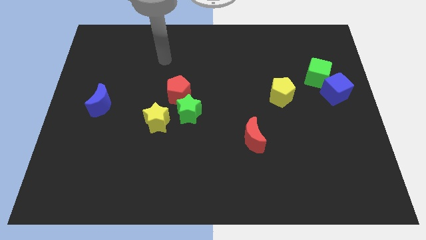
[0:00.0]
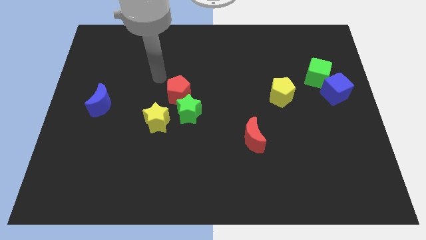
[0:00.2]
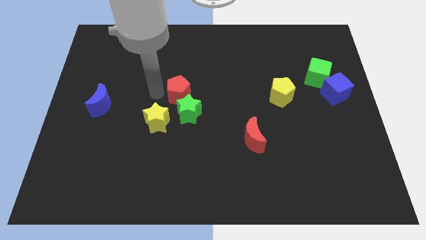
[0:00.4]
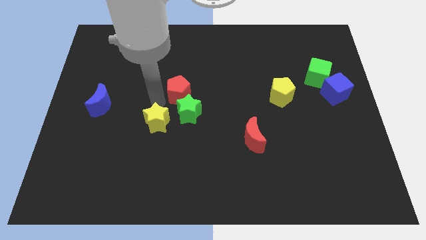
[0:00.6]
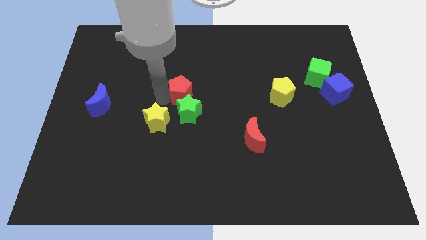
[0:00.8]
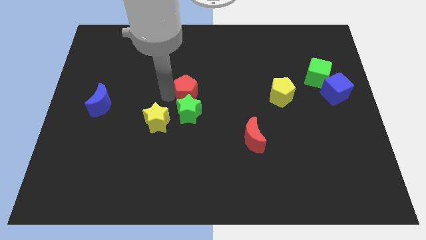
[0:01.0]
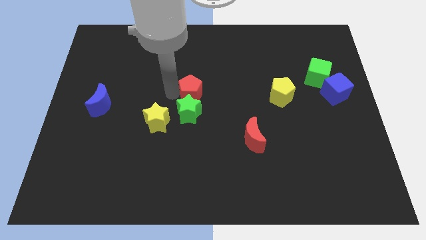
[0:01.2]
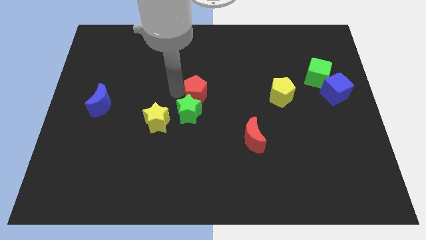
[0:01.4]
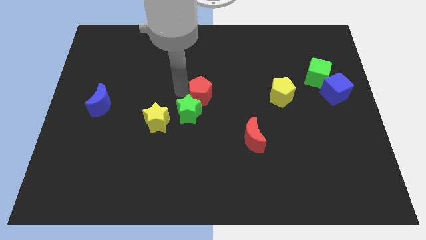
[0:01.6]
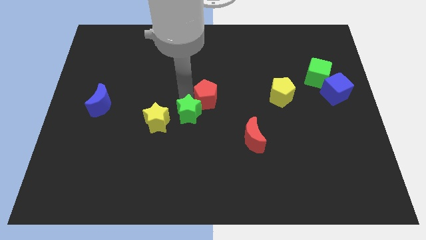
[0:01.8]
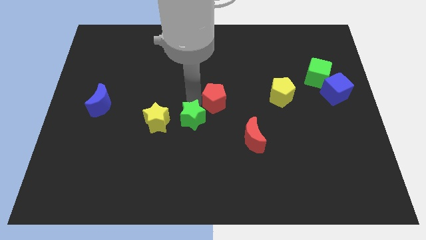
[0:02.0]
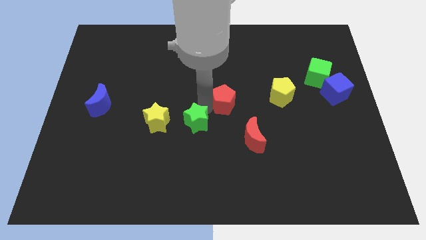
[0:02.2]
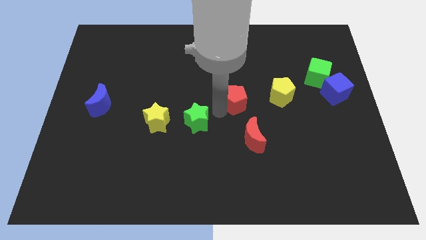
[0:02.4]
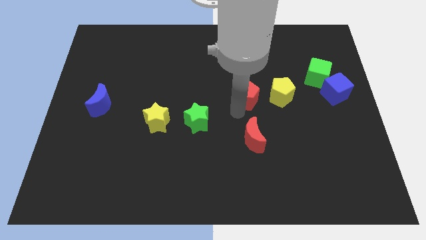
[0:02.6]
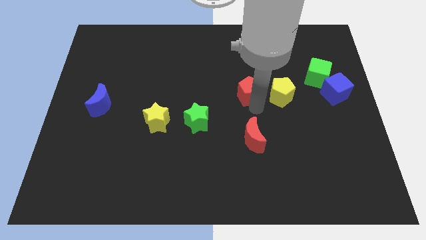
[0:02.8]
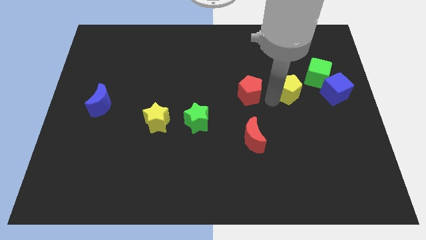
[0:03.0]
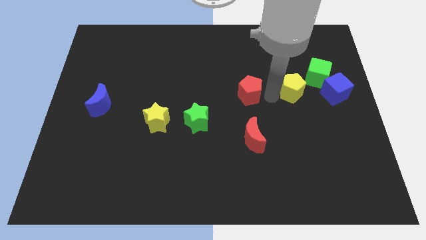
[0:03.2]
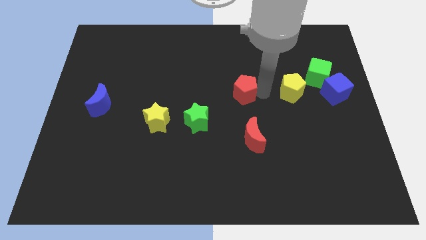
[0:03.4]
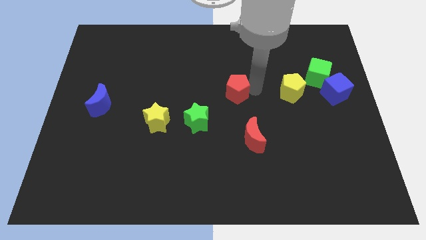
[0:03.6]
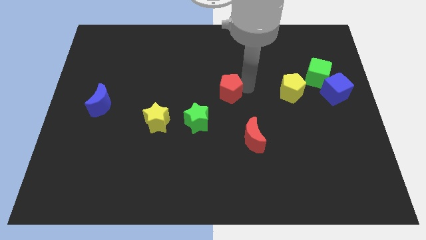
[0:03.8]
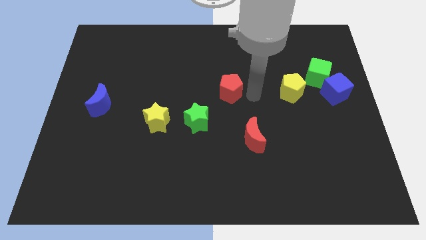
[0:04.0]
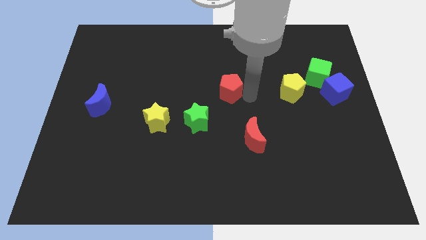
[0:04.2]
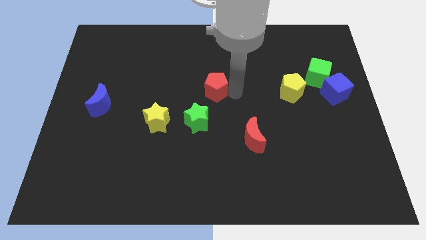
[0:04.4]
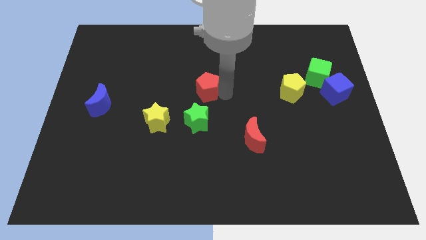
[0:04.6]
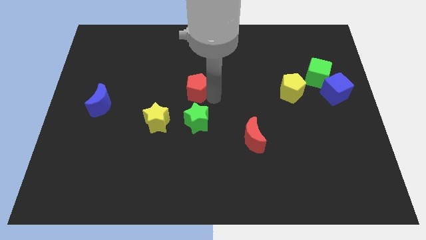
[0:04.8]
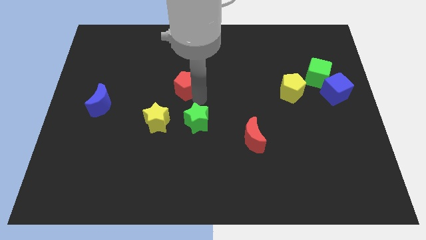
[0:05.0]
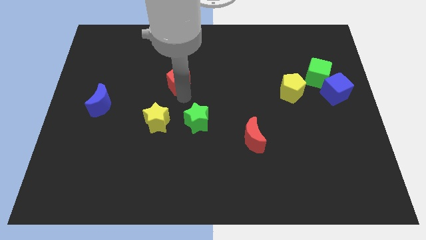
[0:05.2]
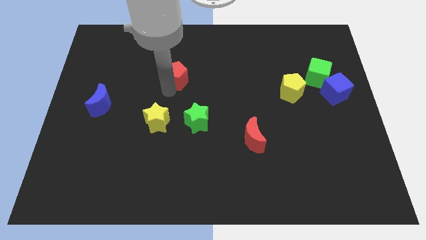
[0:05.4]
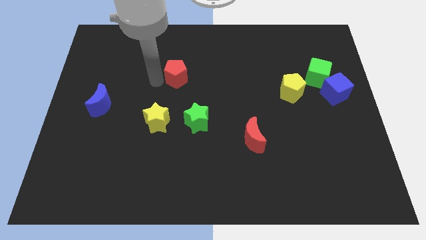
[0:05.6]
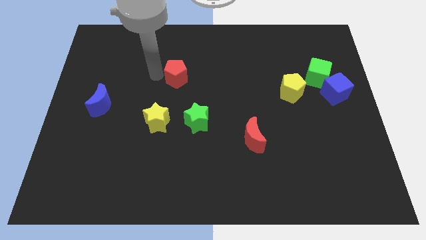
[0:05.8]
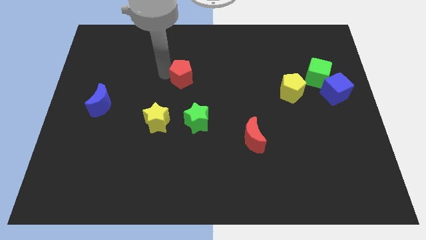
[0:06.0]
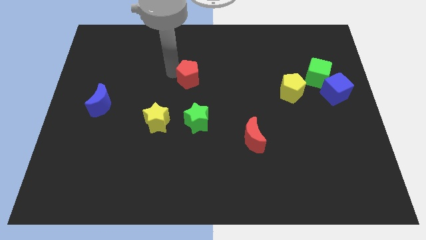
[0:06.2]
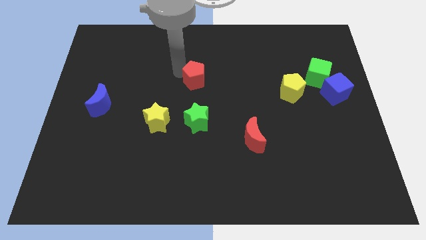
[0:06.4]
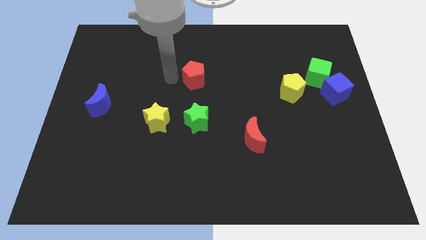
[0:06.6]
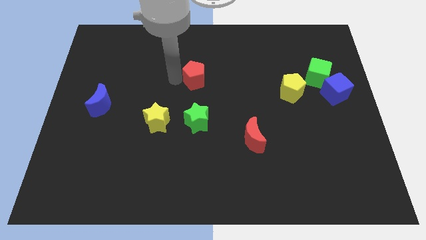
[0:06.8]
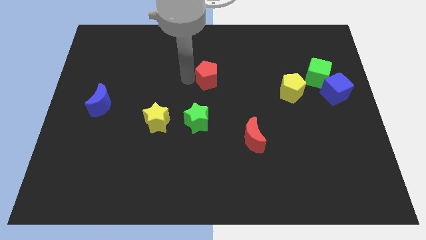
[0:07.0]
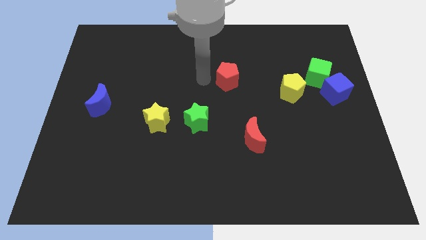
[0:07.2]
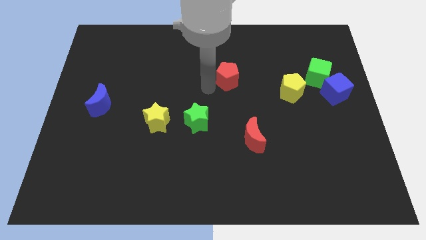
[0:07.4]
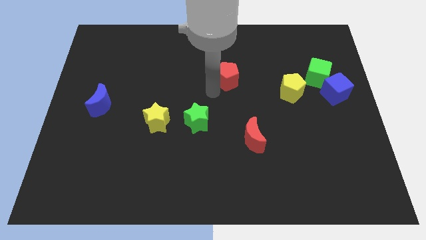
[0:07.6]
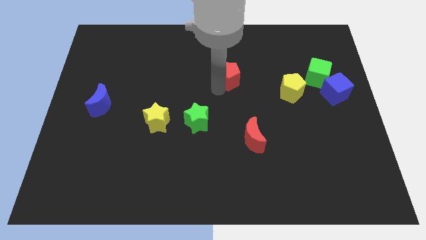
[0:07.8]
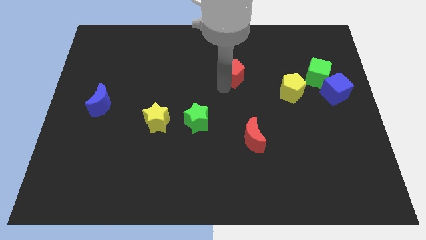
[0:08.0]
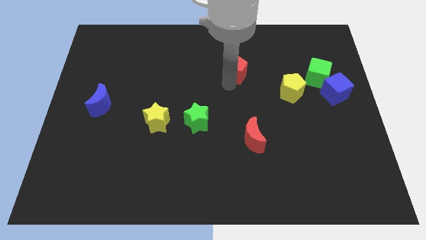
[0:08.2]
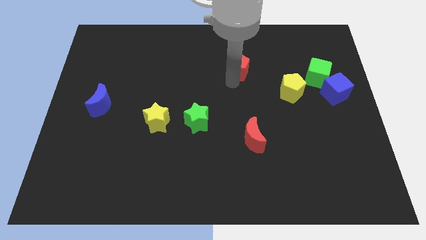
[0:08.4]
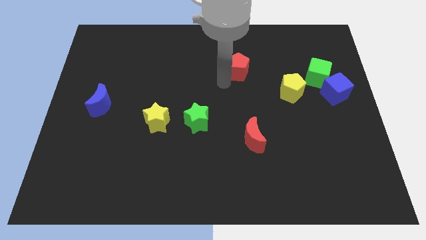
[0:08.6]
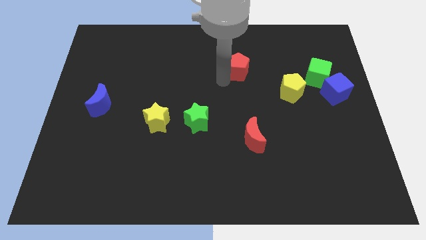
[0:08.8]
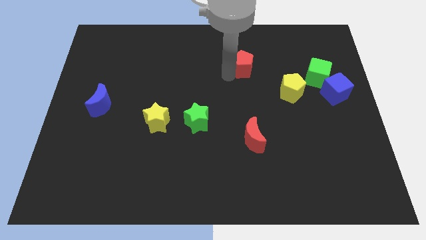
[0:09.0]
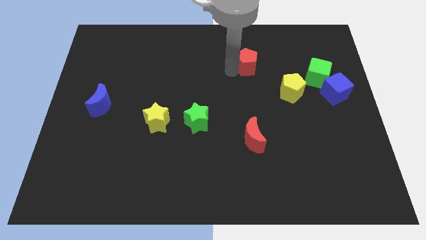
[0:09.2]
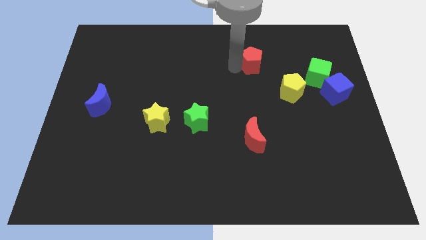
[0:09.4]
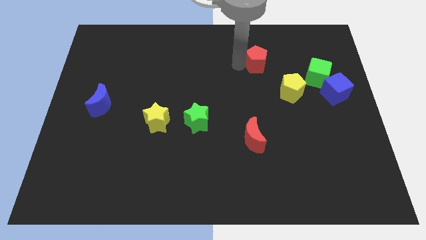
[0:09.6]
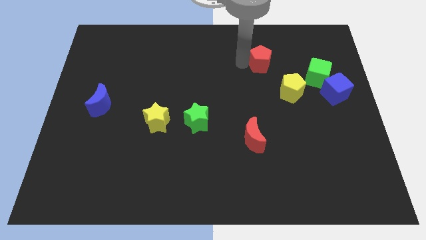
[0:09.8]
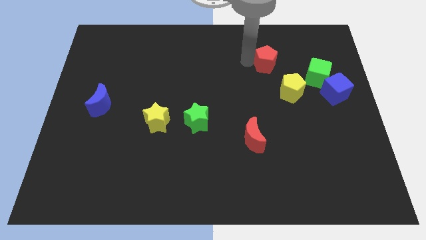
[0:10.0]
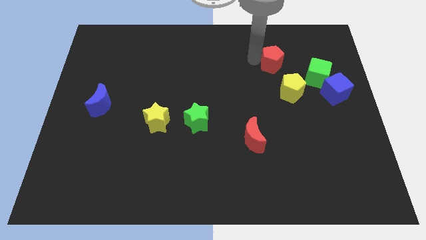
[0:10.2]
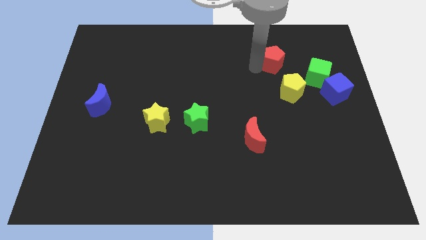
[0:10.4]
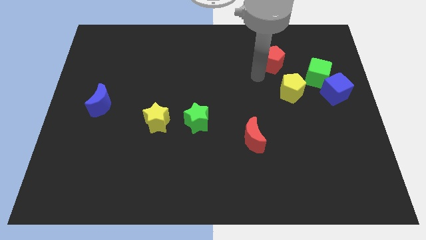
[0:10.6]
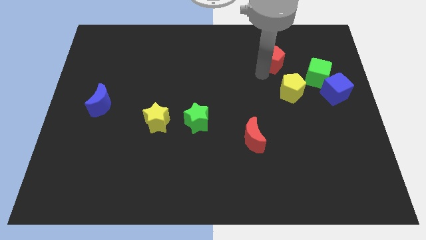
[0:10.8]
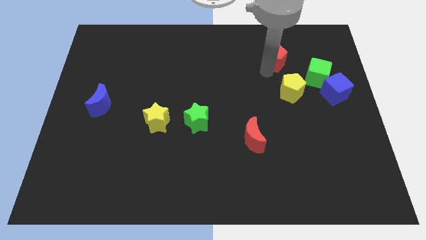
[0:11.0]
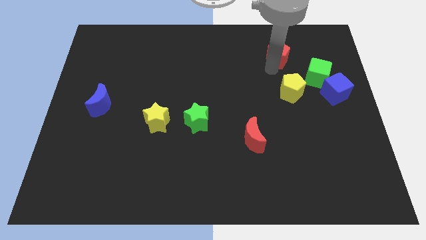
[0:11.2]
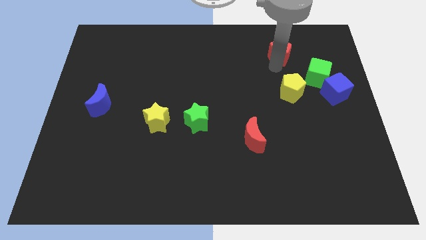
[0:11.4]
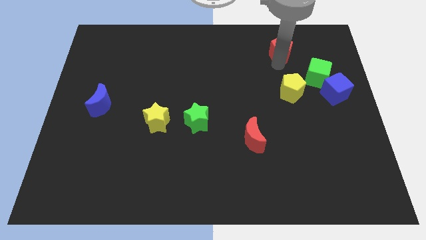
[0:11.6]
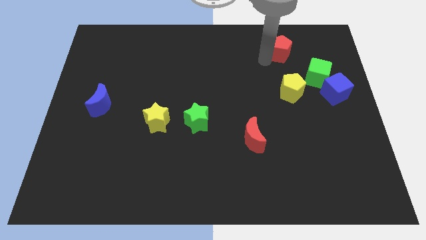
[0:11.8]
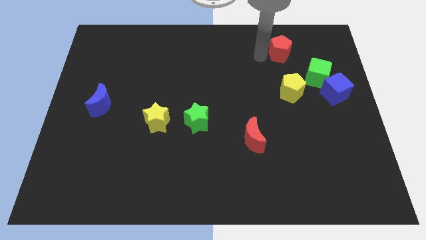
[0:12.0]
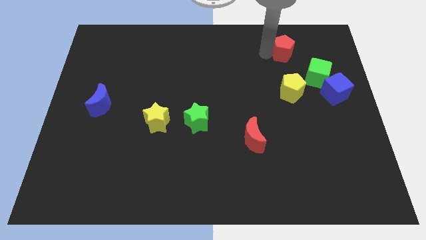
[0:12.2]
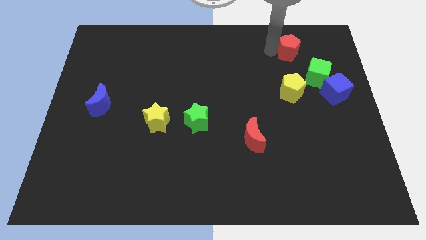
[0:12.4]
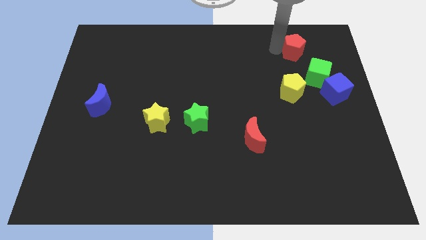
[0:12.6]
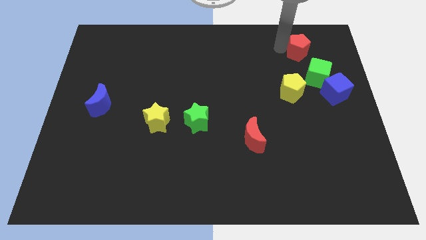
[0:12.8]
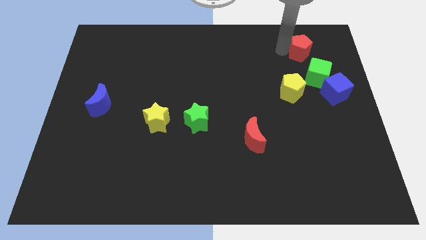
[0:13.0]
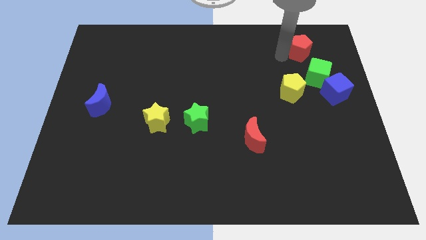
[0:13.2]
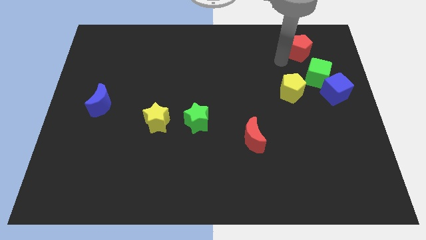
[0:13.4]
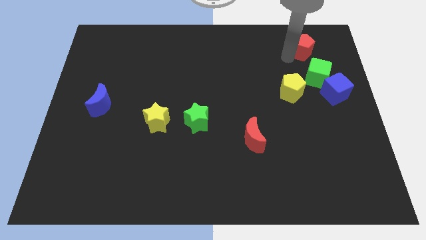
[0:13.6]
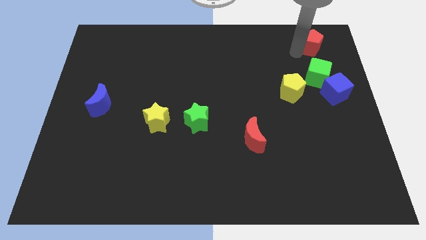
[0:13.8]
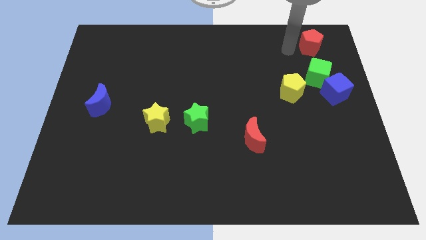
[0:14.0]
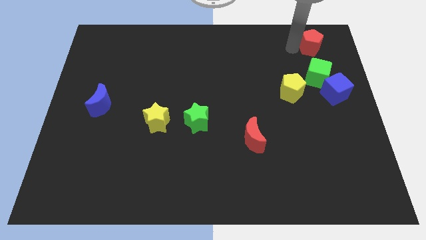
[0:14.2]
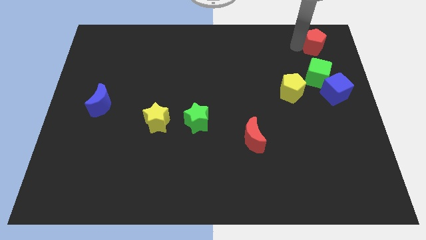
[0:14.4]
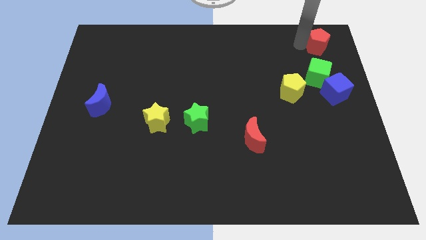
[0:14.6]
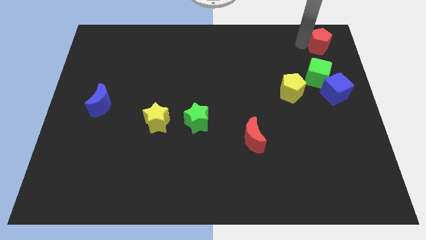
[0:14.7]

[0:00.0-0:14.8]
put the red pentagon to the top right
